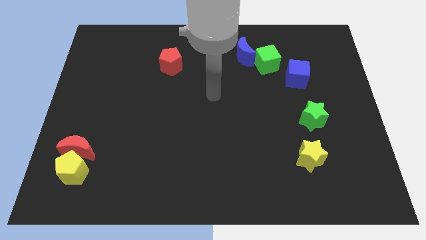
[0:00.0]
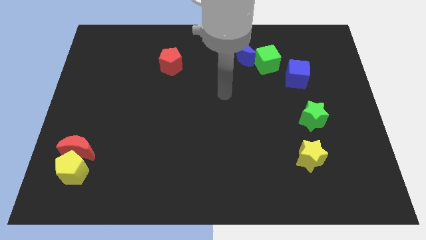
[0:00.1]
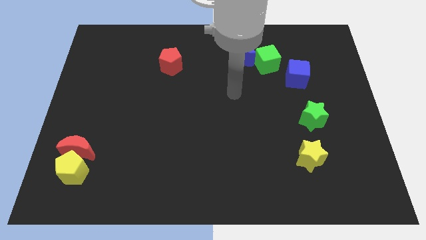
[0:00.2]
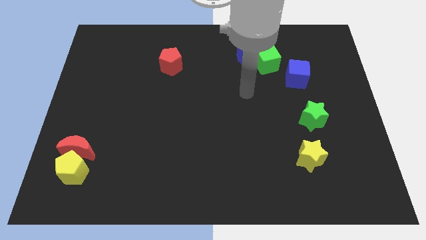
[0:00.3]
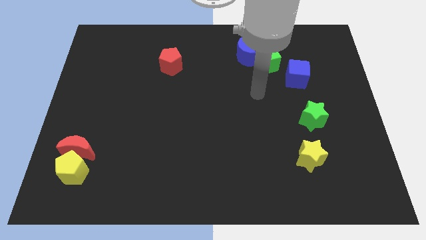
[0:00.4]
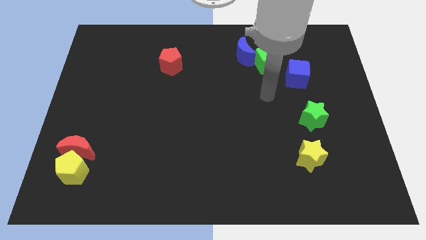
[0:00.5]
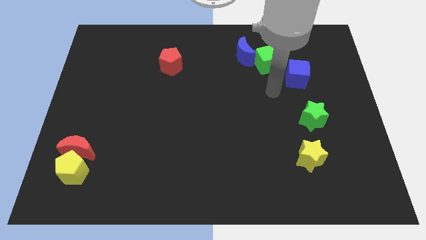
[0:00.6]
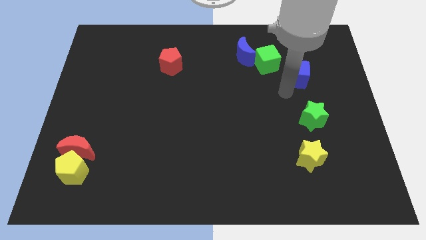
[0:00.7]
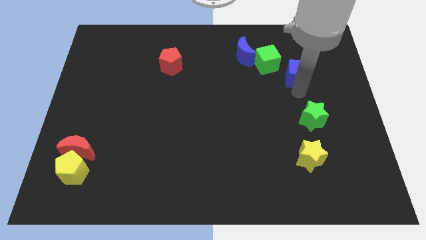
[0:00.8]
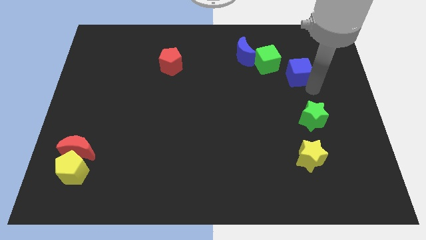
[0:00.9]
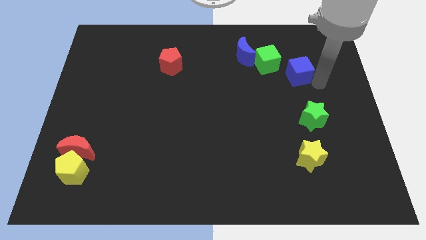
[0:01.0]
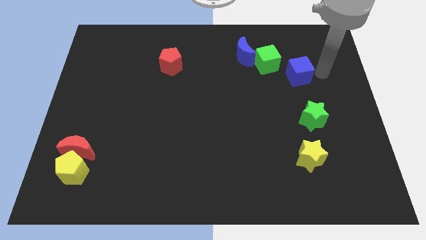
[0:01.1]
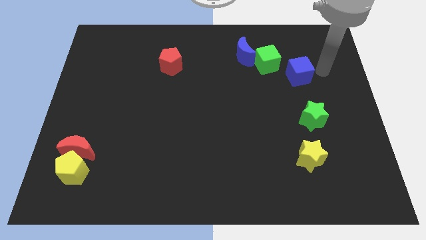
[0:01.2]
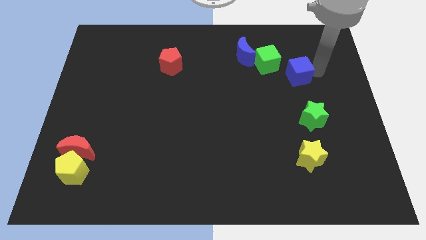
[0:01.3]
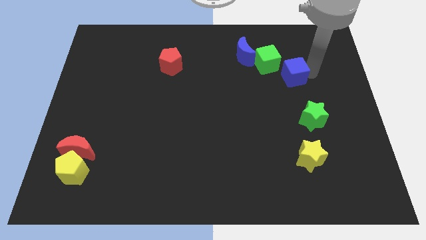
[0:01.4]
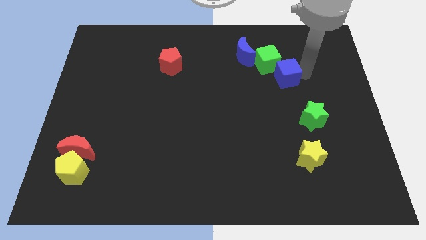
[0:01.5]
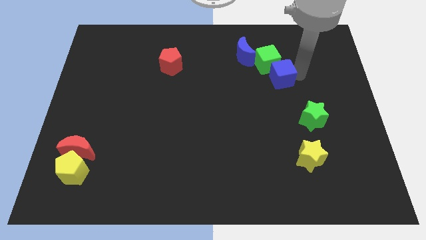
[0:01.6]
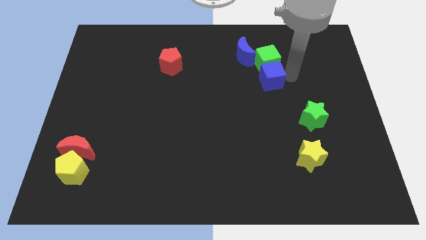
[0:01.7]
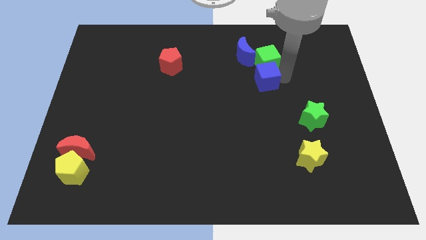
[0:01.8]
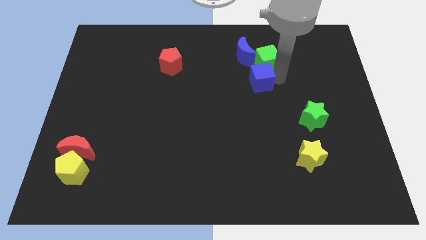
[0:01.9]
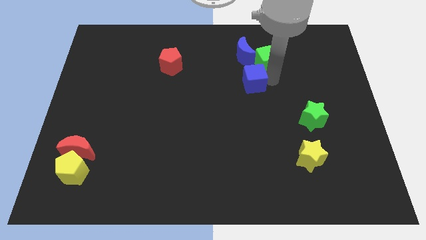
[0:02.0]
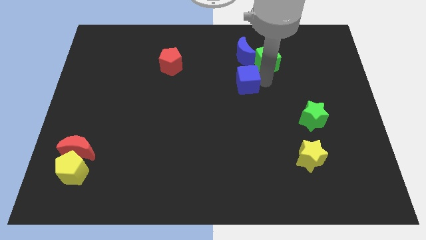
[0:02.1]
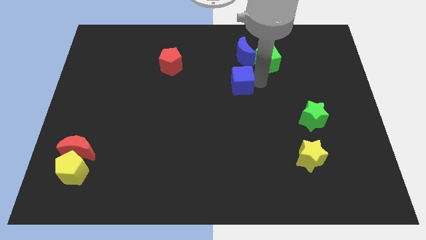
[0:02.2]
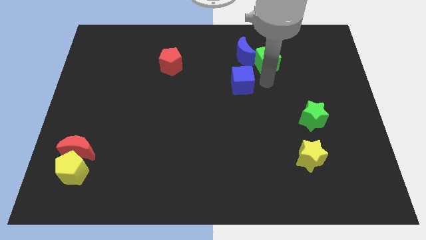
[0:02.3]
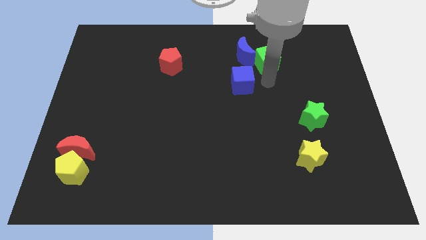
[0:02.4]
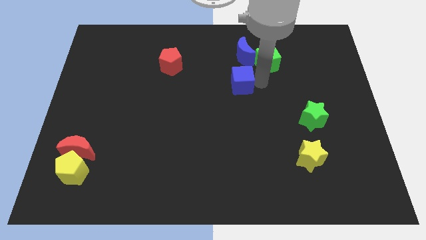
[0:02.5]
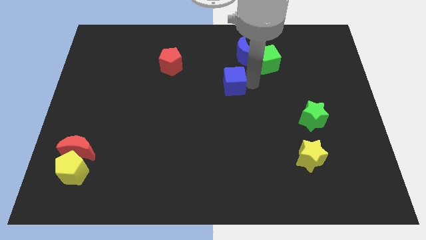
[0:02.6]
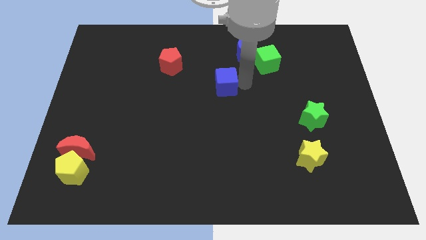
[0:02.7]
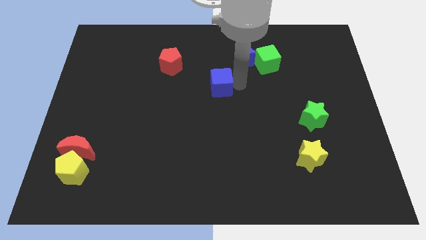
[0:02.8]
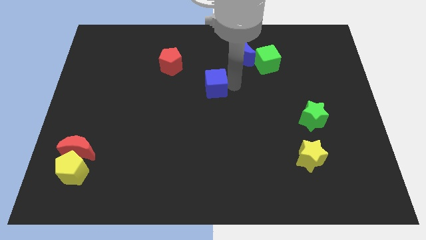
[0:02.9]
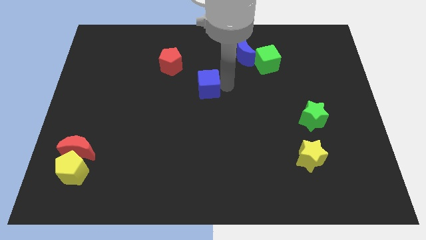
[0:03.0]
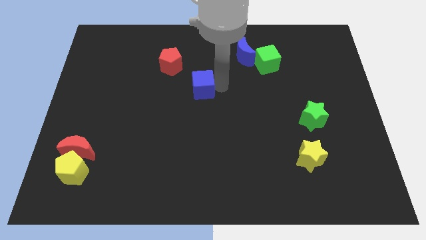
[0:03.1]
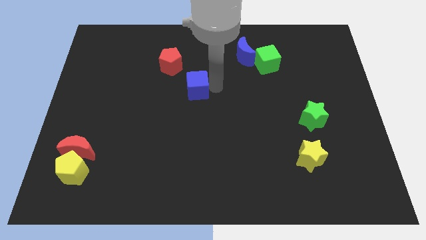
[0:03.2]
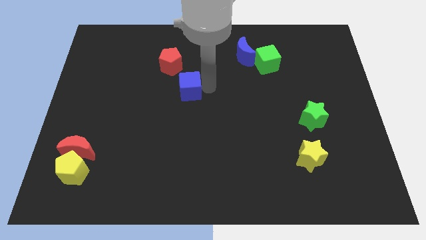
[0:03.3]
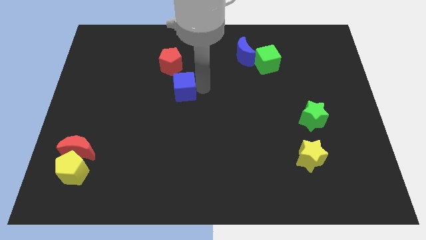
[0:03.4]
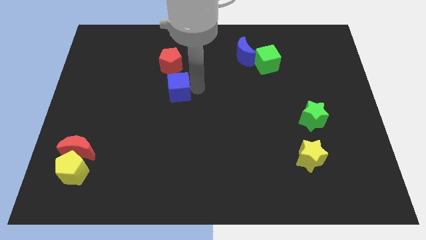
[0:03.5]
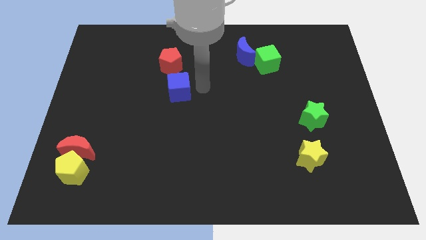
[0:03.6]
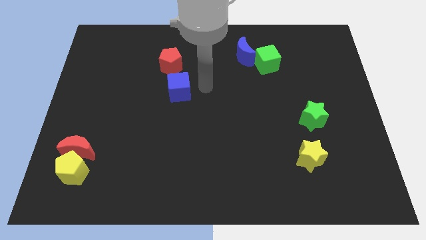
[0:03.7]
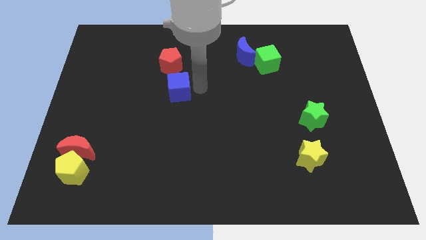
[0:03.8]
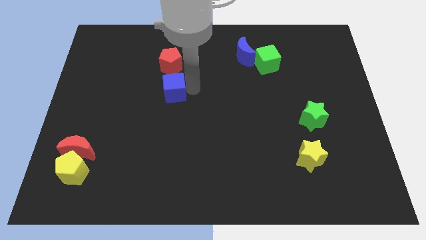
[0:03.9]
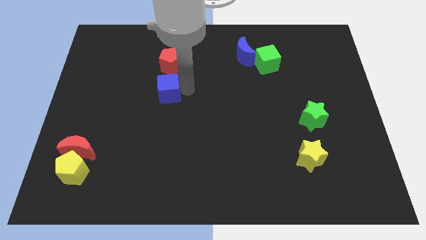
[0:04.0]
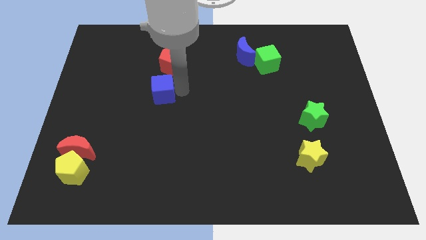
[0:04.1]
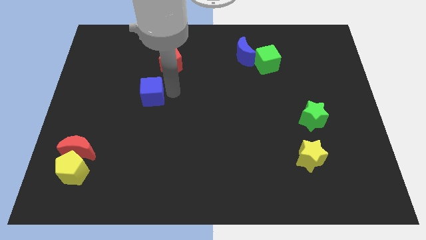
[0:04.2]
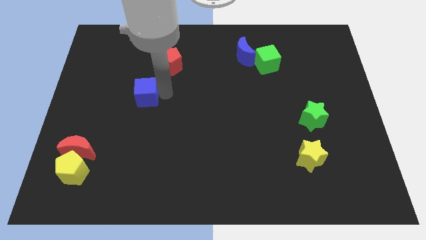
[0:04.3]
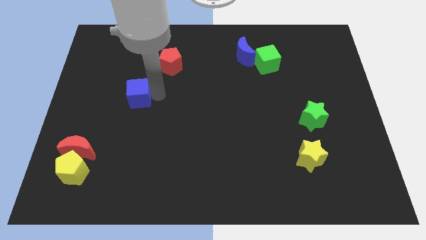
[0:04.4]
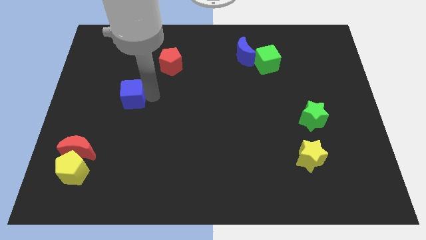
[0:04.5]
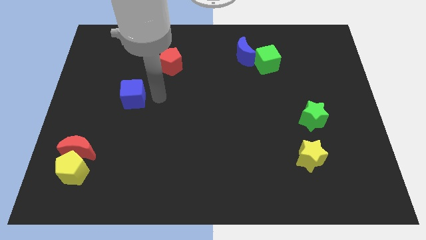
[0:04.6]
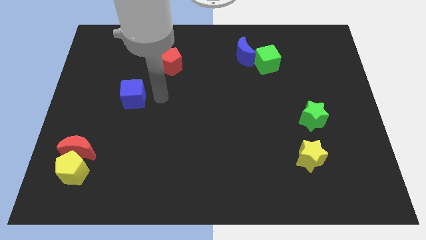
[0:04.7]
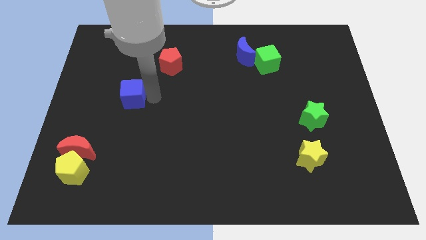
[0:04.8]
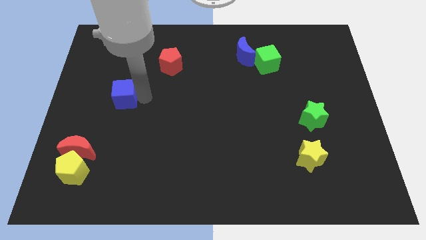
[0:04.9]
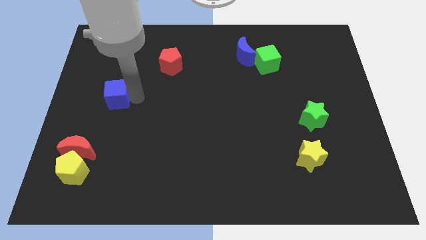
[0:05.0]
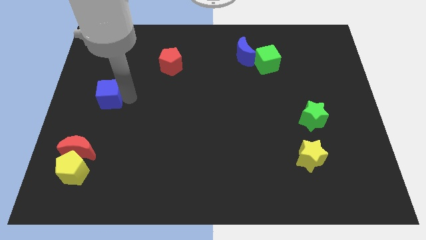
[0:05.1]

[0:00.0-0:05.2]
move the blue cube to the center left

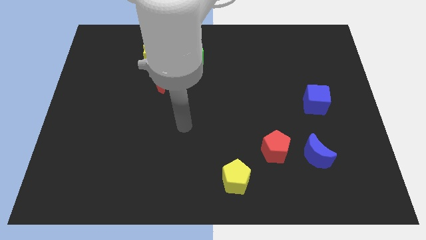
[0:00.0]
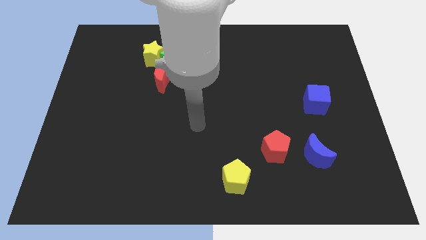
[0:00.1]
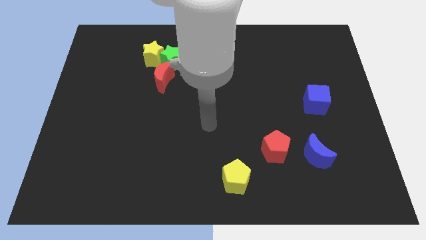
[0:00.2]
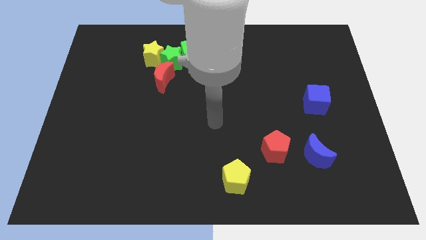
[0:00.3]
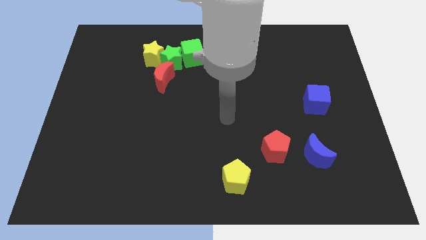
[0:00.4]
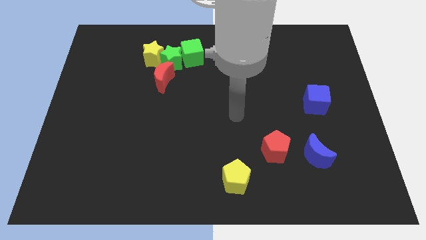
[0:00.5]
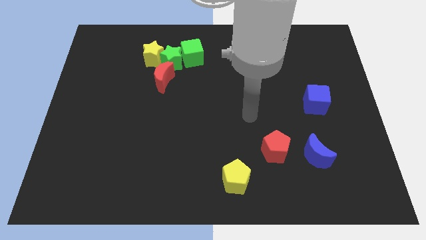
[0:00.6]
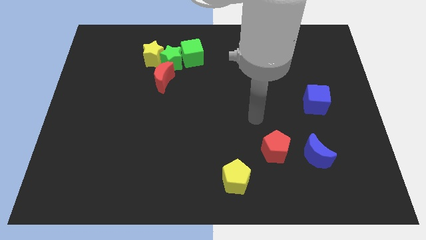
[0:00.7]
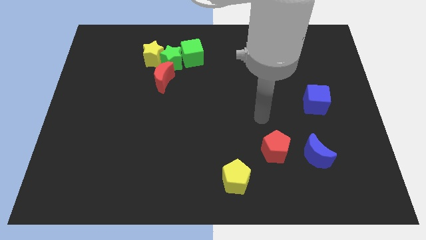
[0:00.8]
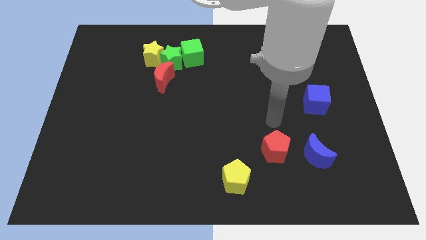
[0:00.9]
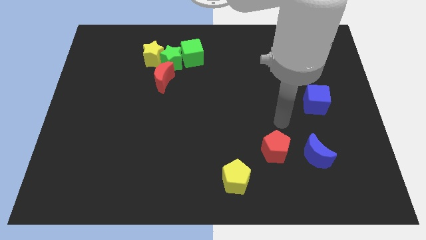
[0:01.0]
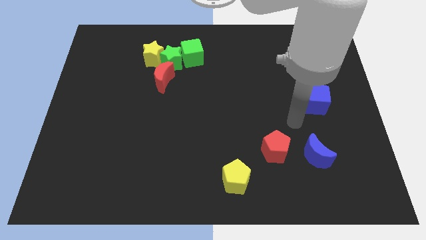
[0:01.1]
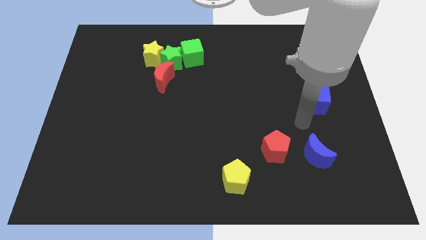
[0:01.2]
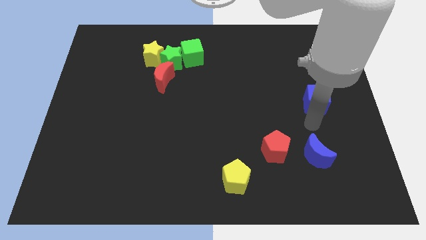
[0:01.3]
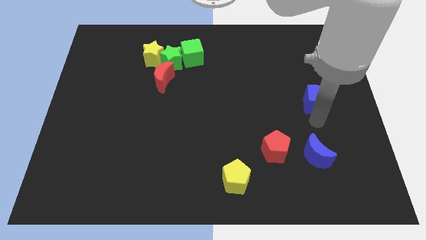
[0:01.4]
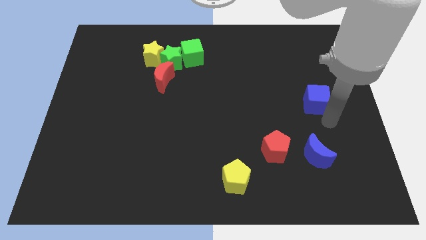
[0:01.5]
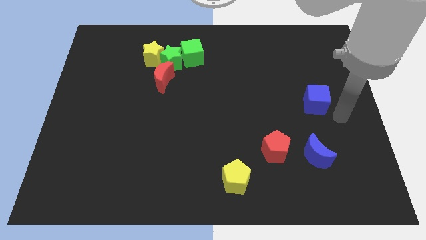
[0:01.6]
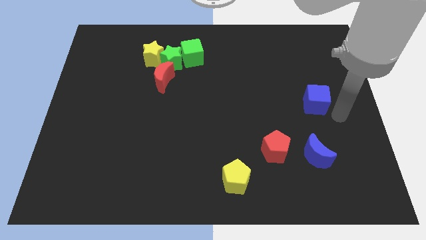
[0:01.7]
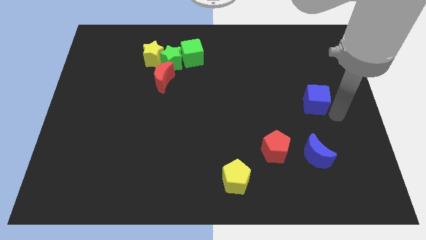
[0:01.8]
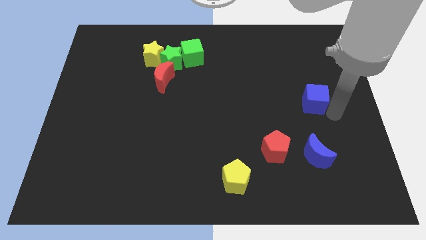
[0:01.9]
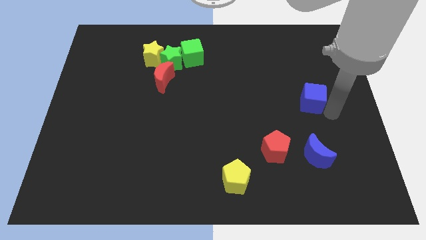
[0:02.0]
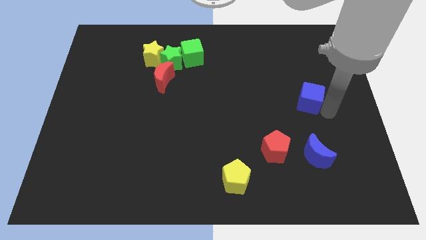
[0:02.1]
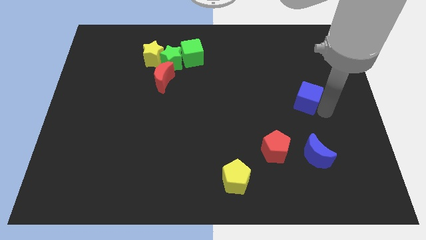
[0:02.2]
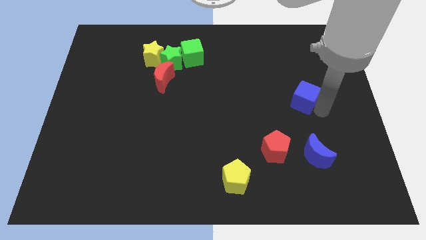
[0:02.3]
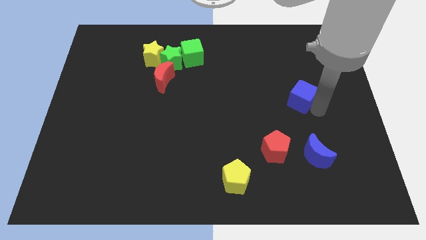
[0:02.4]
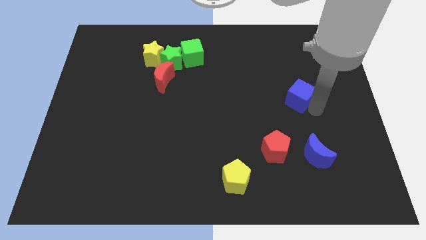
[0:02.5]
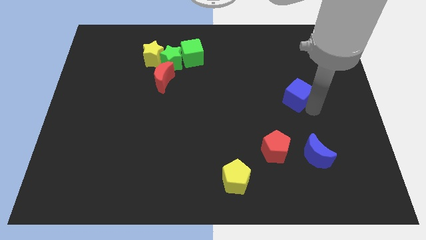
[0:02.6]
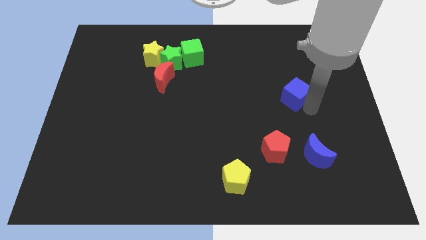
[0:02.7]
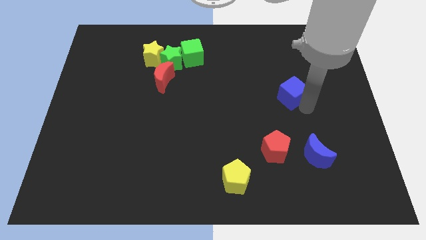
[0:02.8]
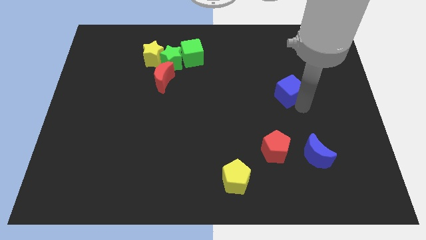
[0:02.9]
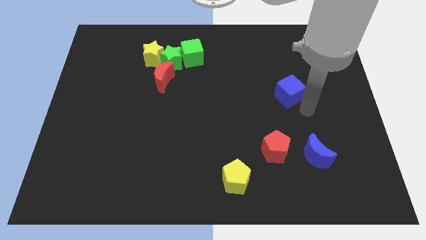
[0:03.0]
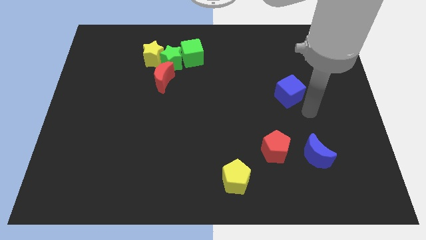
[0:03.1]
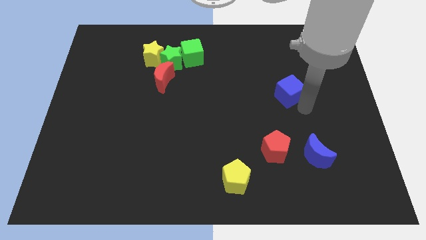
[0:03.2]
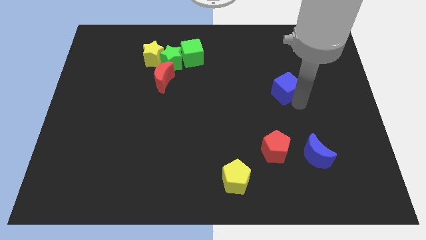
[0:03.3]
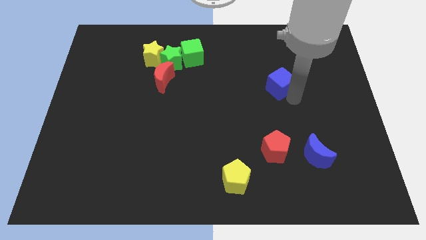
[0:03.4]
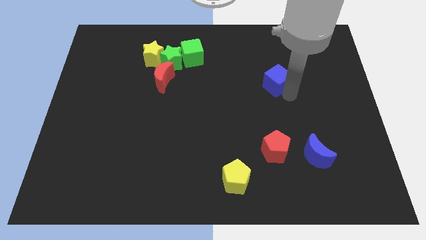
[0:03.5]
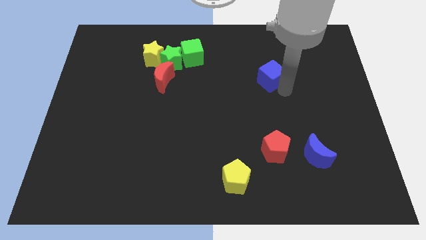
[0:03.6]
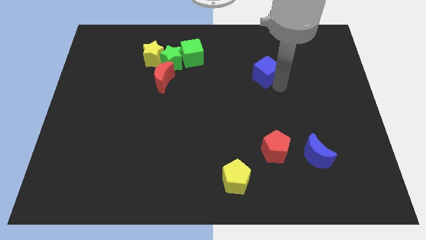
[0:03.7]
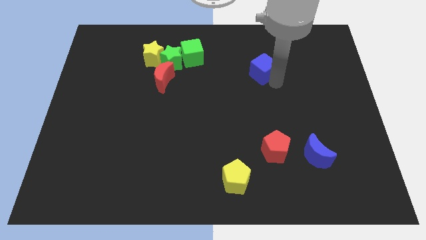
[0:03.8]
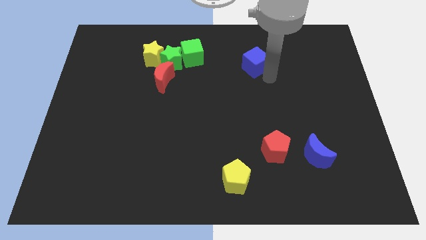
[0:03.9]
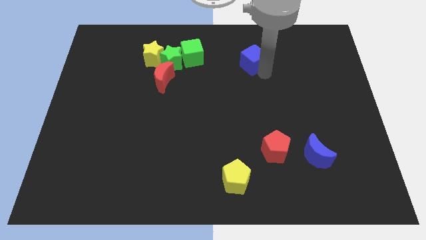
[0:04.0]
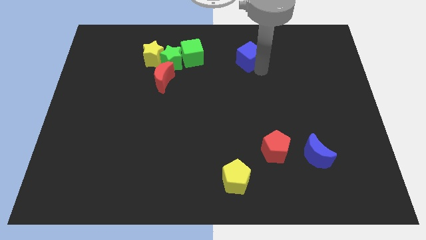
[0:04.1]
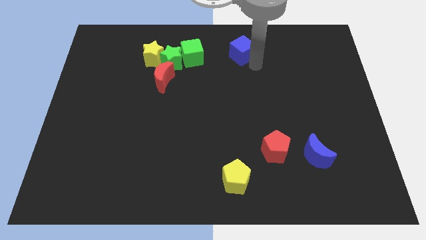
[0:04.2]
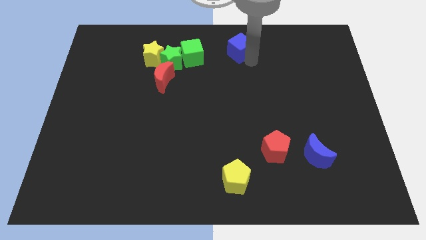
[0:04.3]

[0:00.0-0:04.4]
push the blue cube to the towards your base
